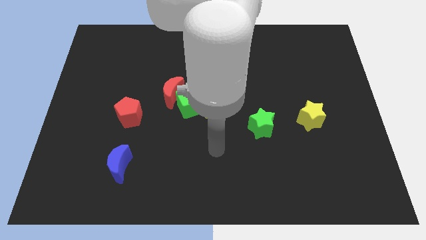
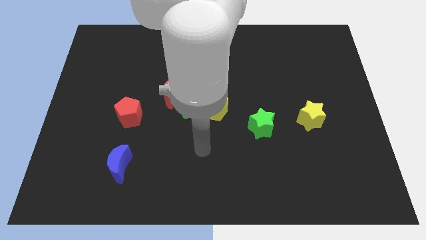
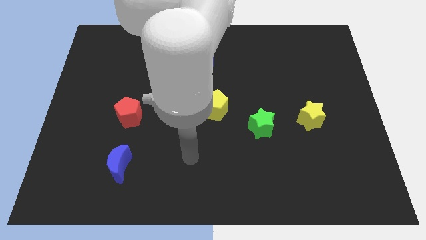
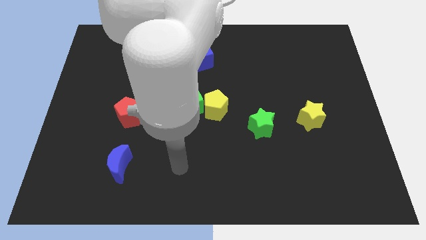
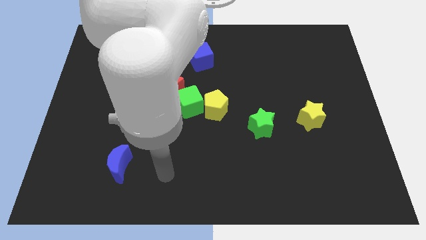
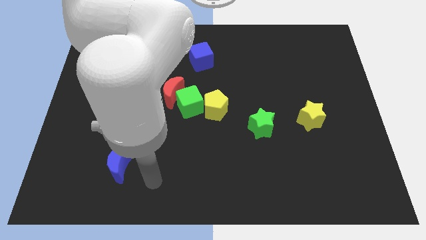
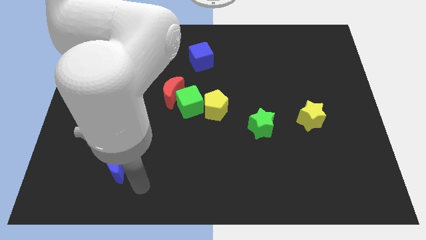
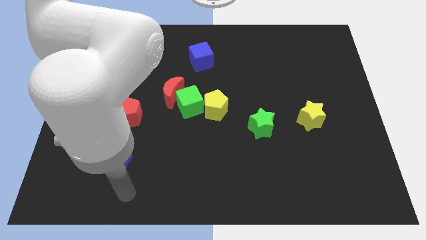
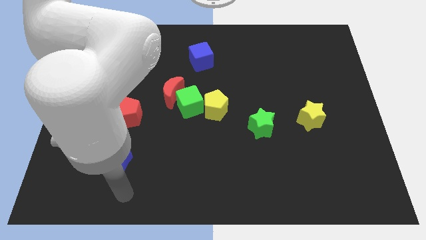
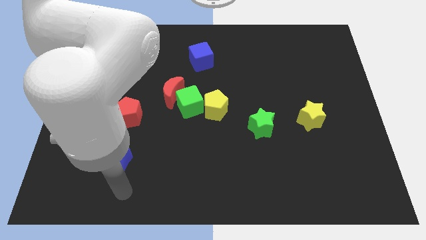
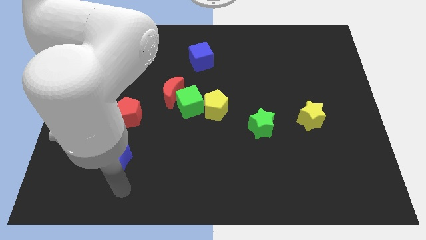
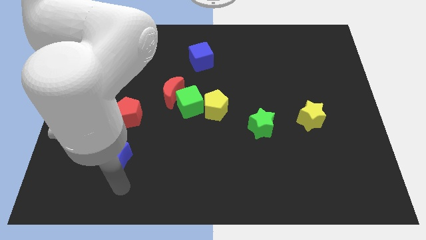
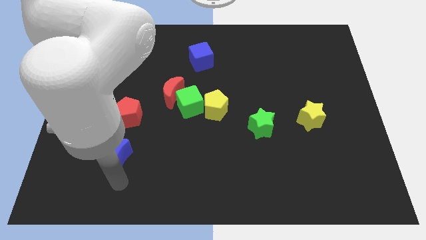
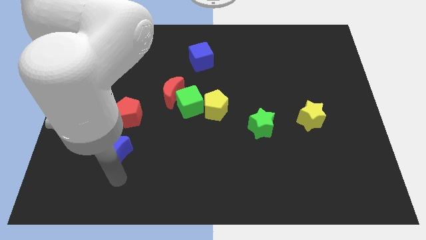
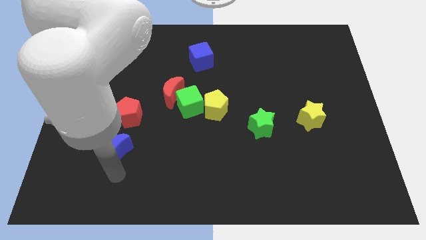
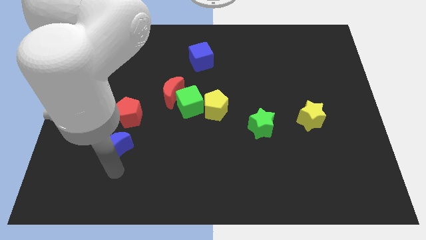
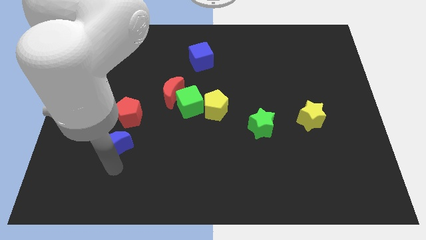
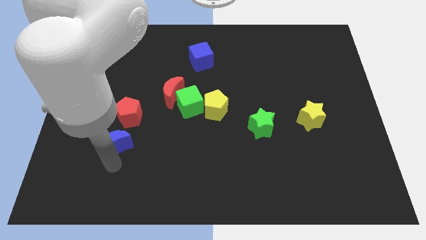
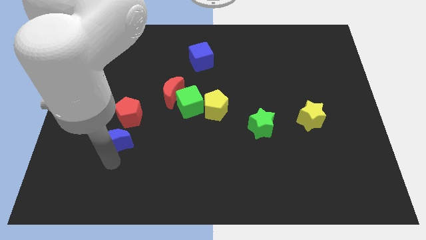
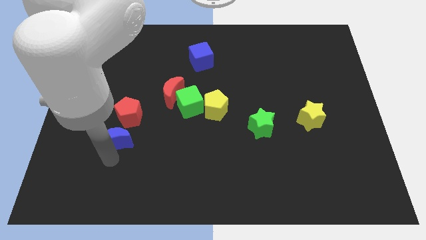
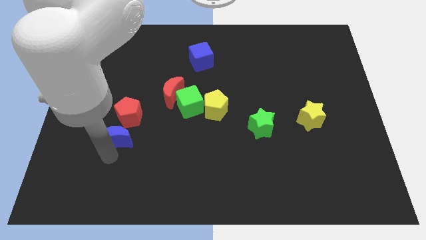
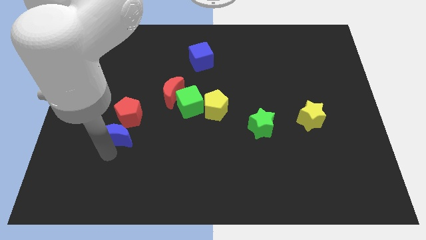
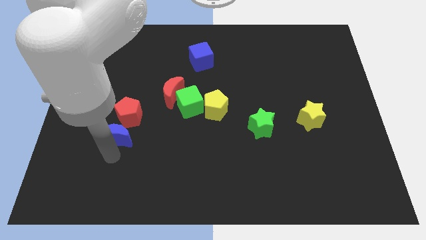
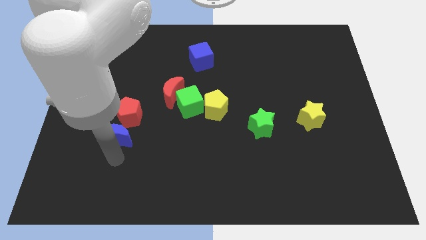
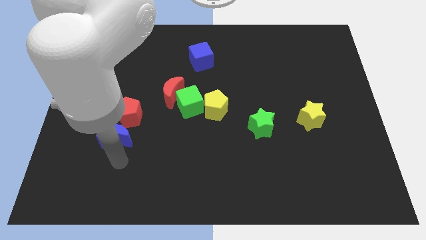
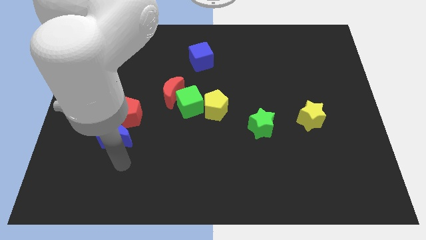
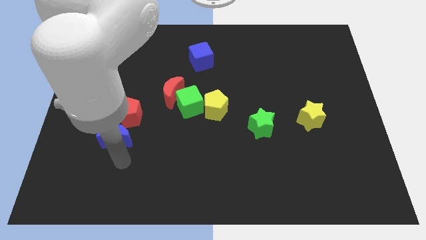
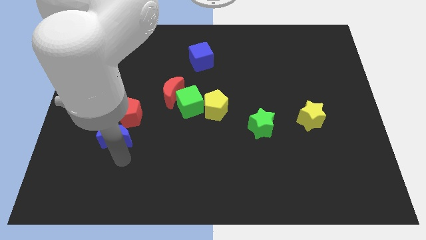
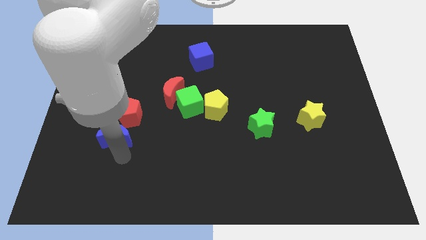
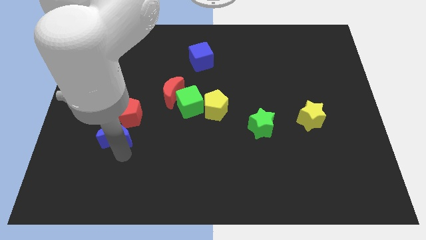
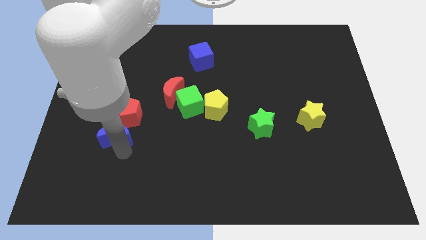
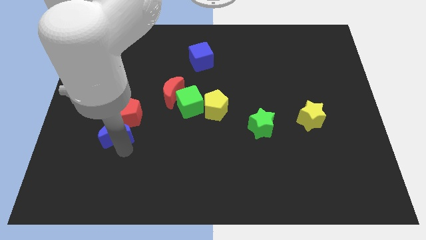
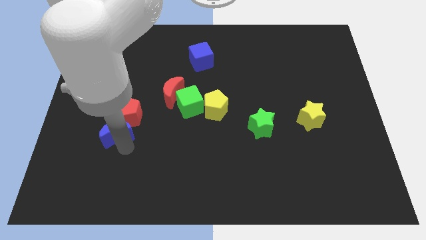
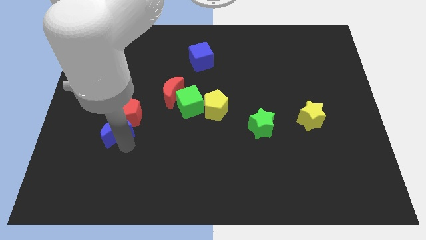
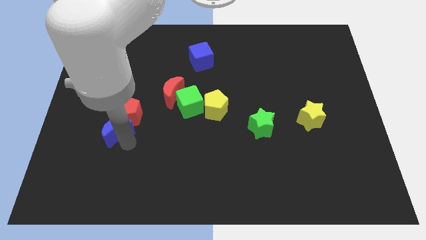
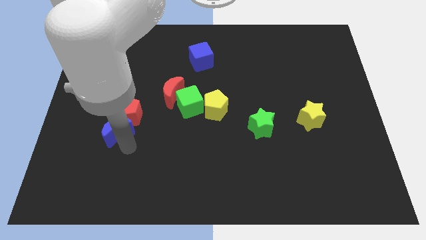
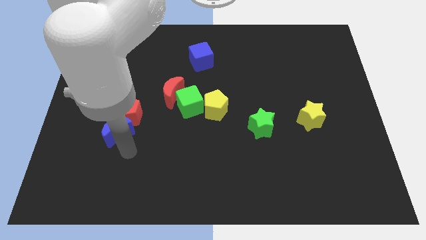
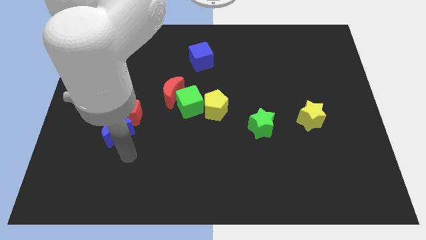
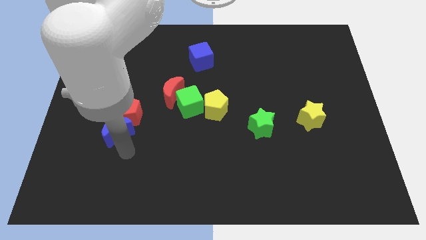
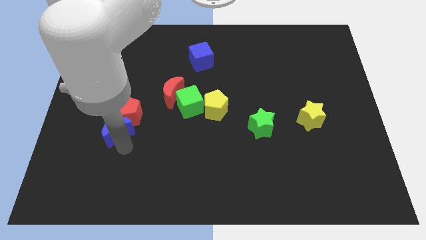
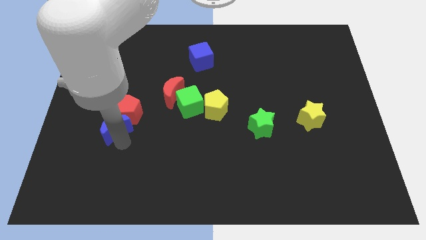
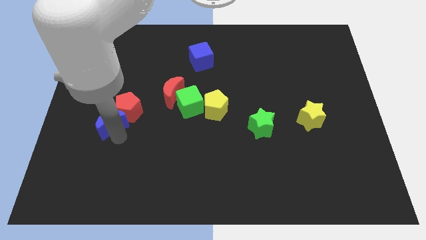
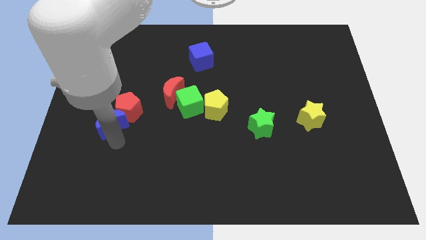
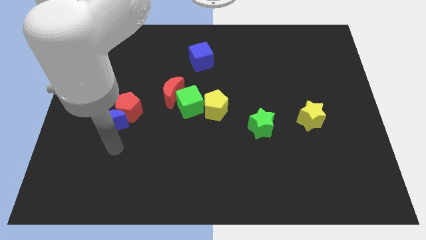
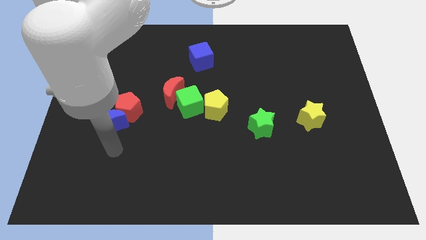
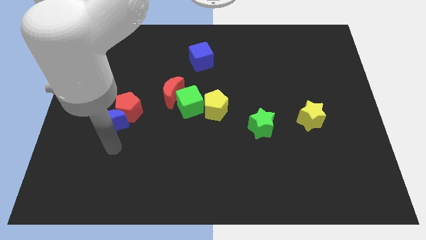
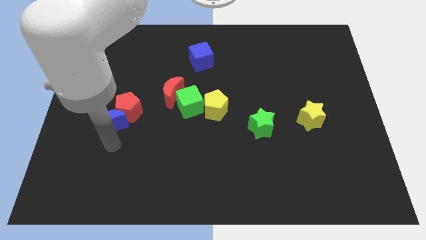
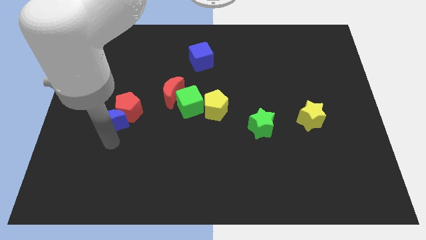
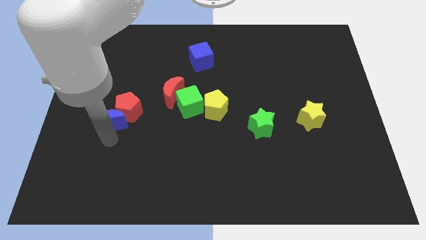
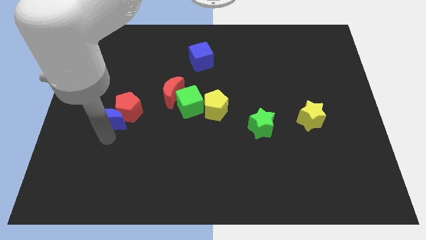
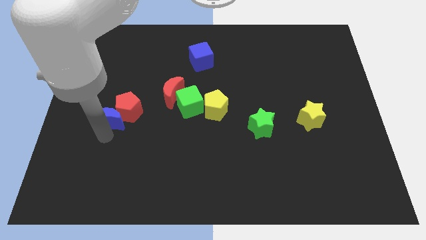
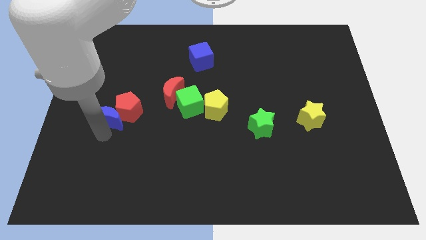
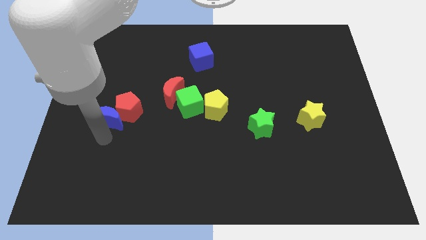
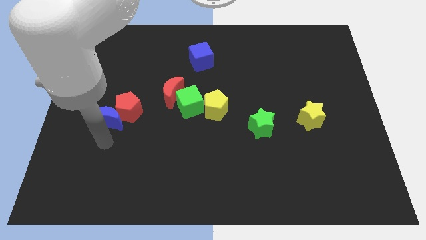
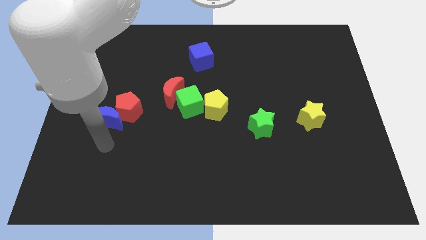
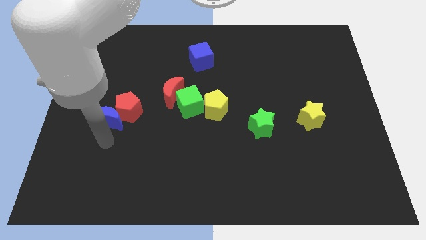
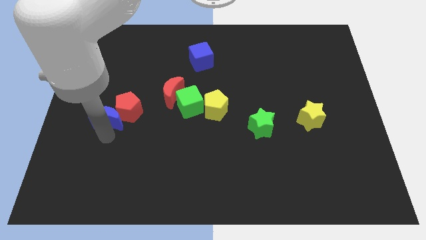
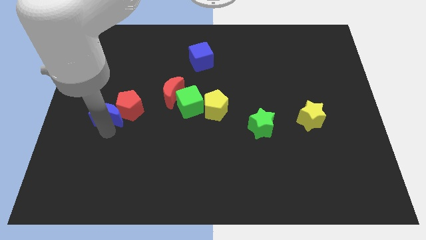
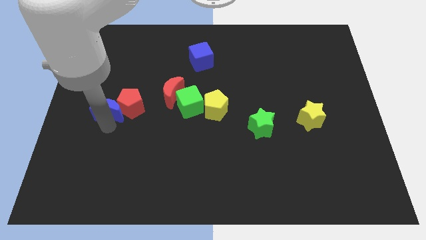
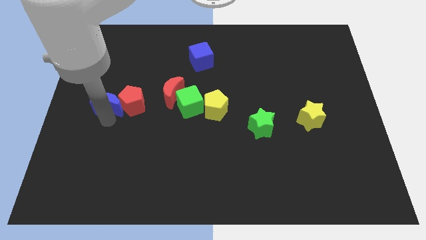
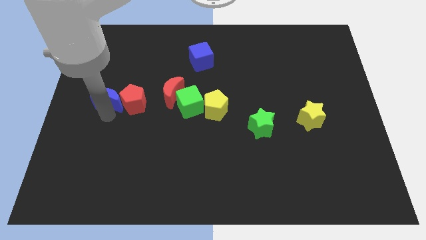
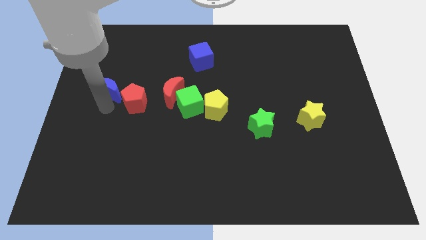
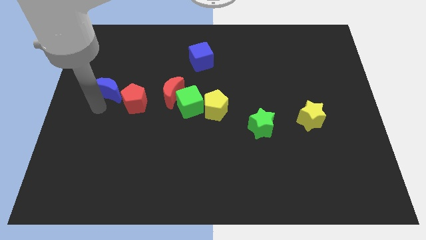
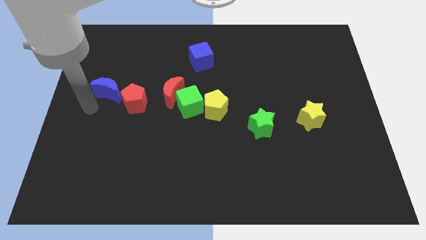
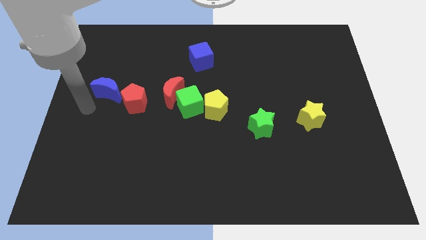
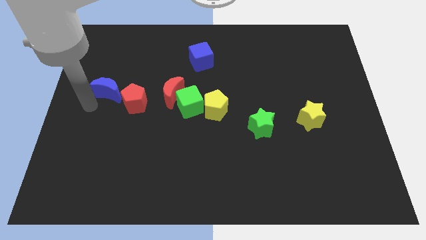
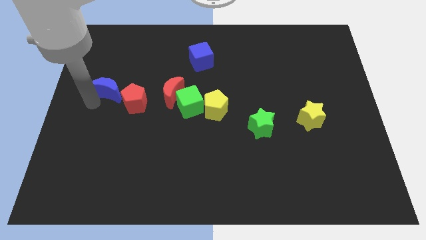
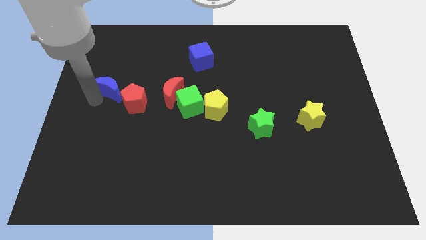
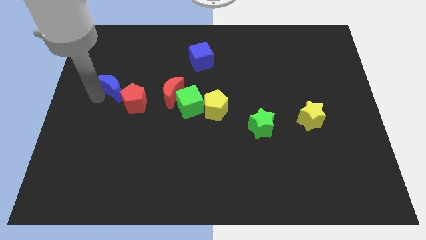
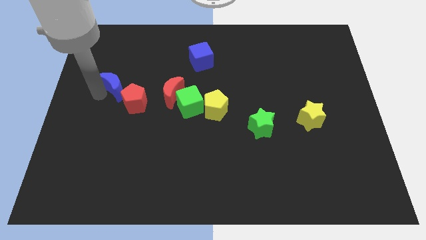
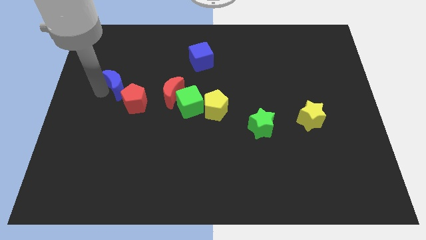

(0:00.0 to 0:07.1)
move the blue moon to the top of the red pentagon
